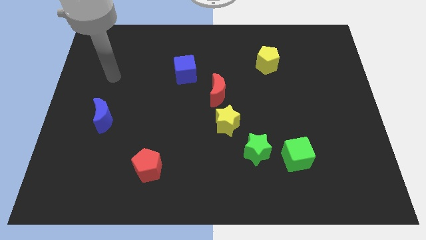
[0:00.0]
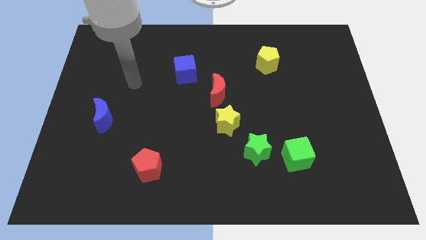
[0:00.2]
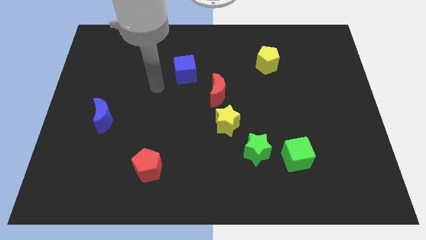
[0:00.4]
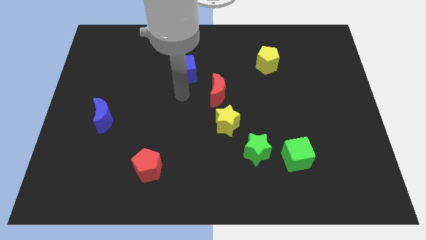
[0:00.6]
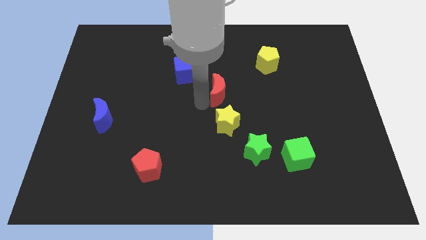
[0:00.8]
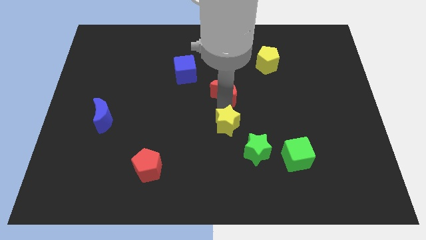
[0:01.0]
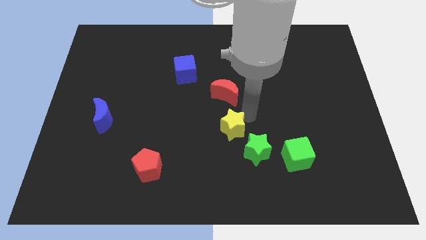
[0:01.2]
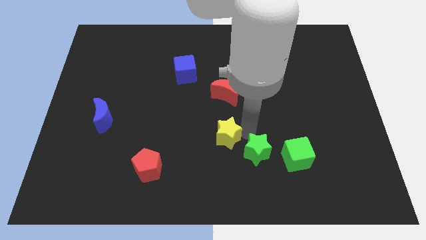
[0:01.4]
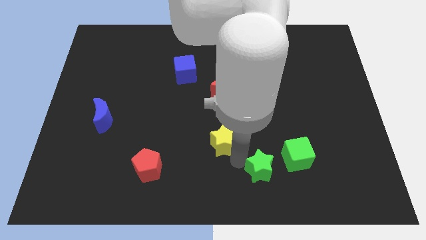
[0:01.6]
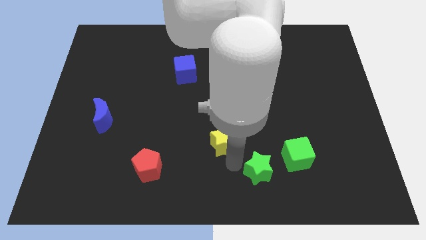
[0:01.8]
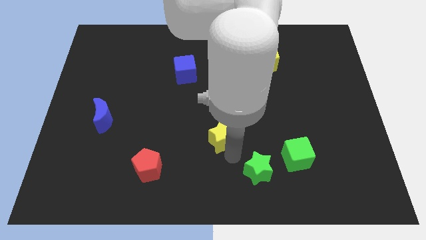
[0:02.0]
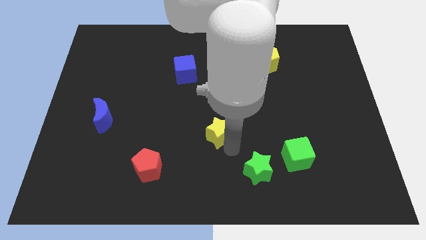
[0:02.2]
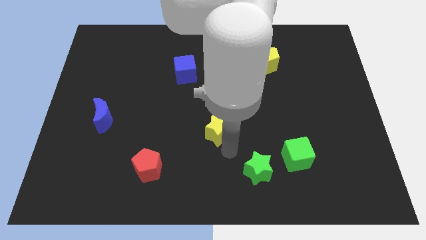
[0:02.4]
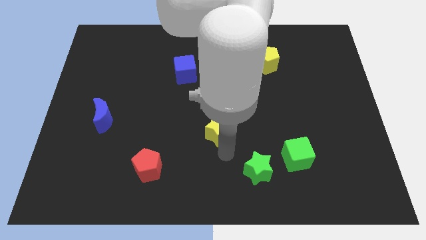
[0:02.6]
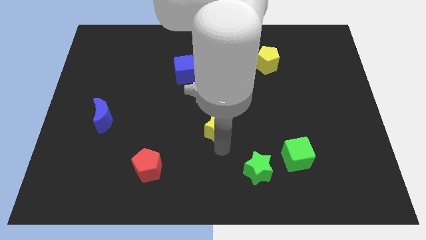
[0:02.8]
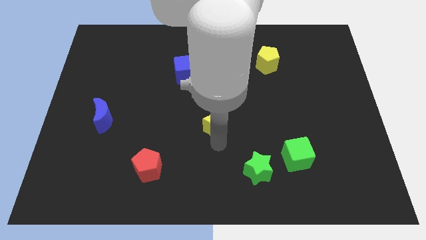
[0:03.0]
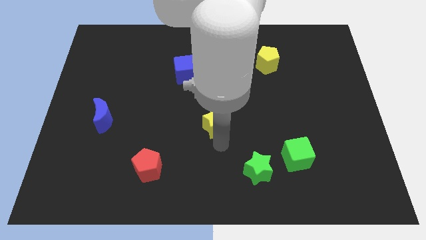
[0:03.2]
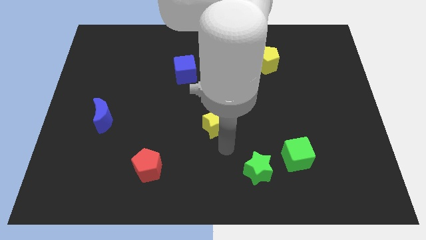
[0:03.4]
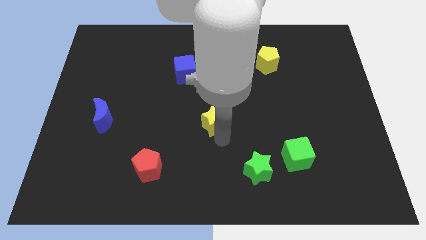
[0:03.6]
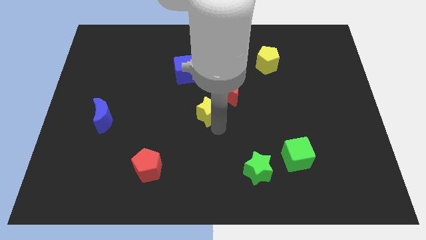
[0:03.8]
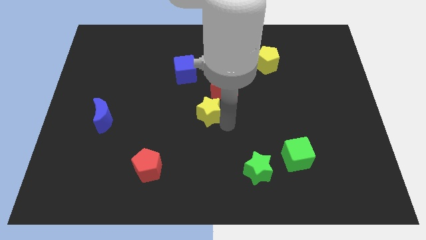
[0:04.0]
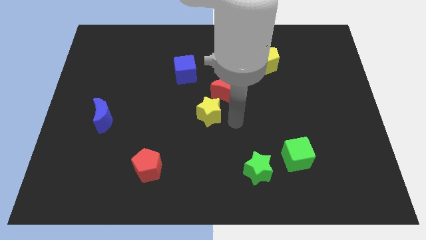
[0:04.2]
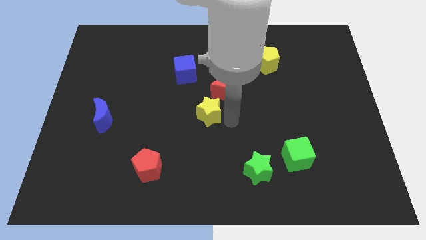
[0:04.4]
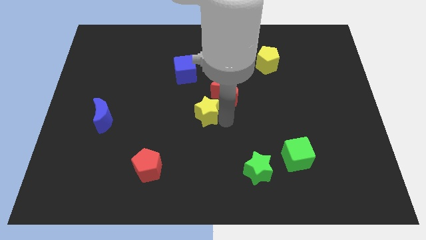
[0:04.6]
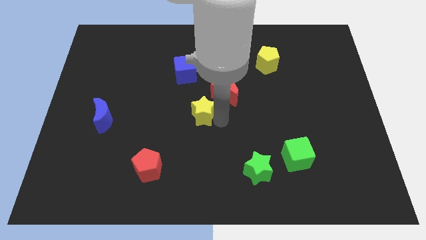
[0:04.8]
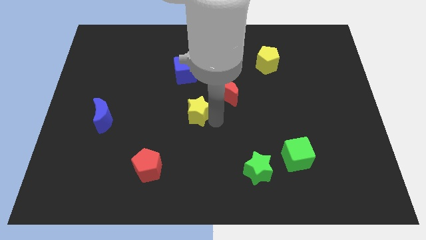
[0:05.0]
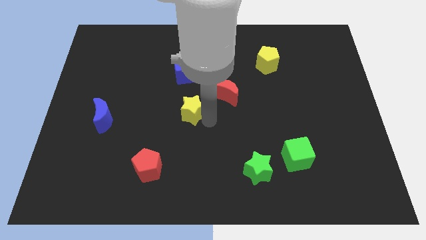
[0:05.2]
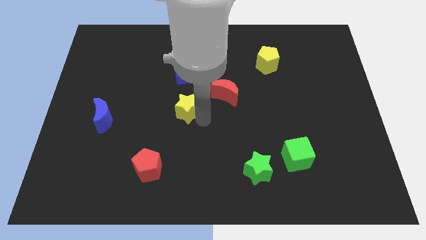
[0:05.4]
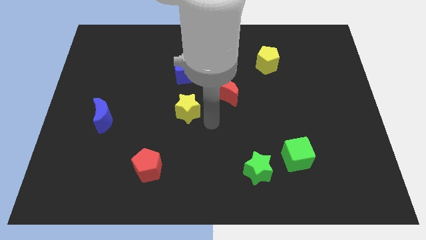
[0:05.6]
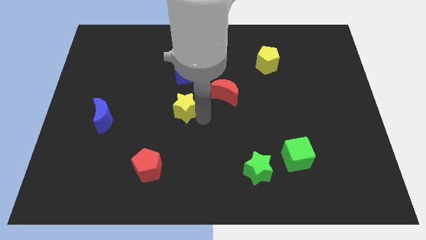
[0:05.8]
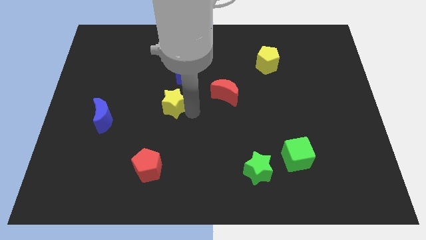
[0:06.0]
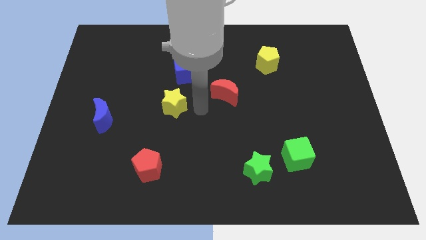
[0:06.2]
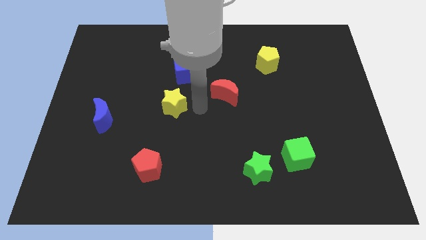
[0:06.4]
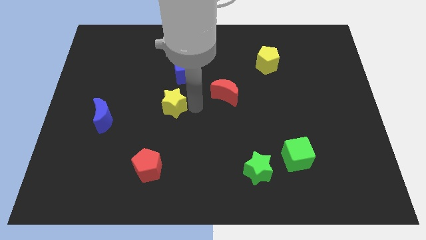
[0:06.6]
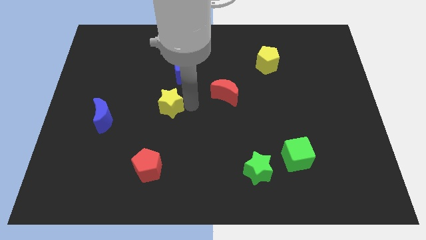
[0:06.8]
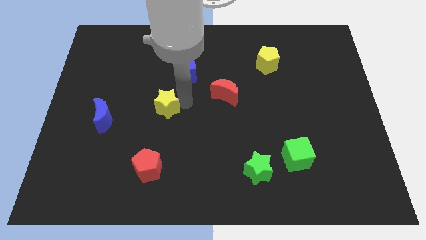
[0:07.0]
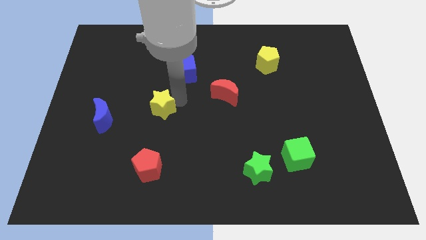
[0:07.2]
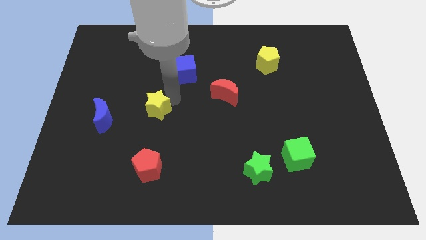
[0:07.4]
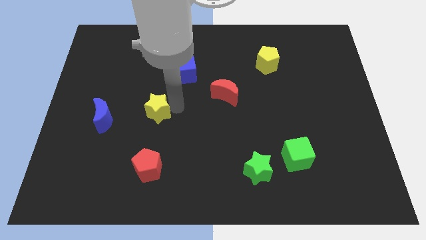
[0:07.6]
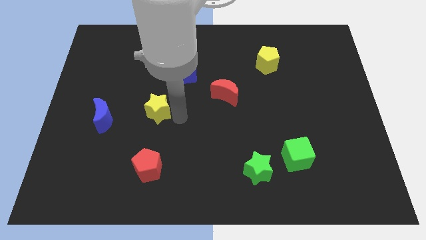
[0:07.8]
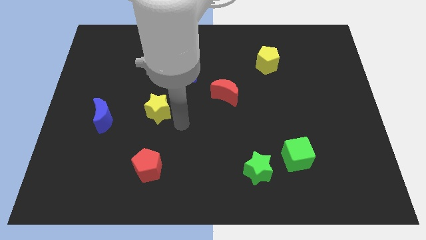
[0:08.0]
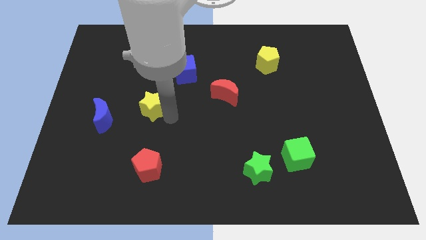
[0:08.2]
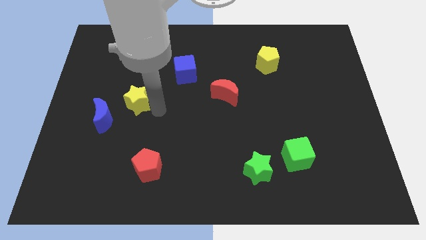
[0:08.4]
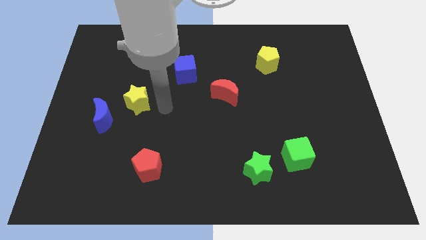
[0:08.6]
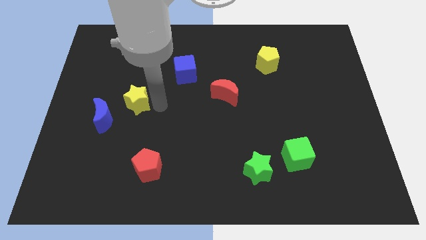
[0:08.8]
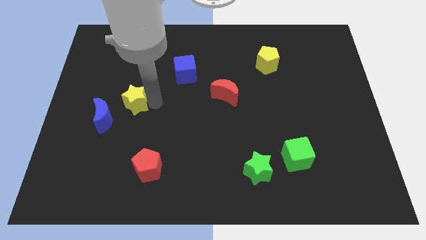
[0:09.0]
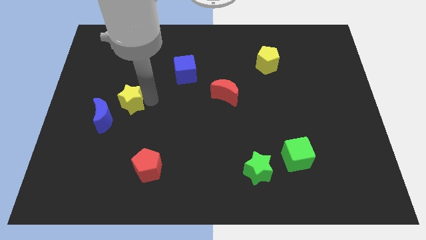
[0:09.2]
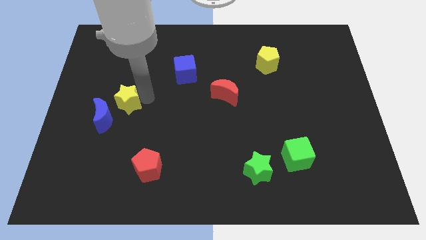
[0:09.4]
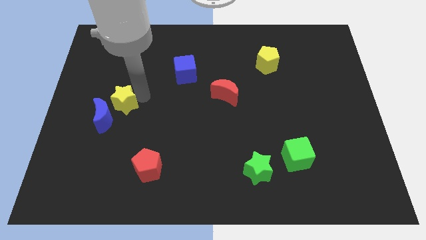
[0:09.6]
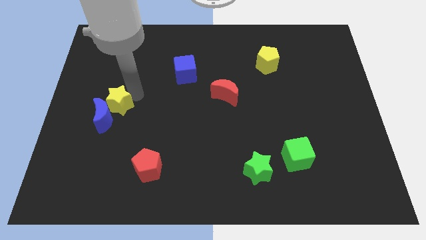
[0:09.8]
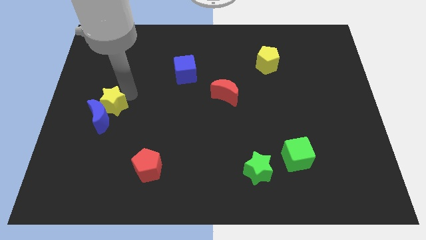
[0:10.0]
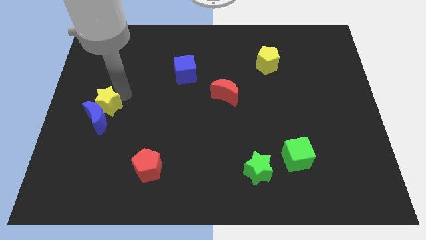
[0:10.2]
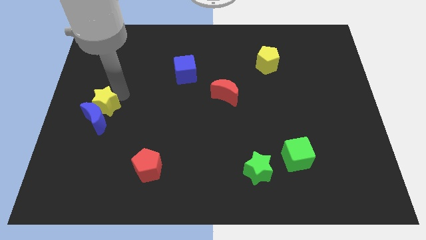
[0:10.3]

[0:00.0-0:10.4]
slide the yellow star to the center left

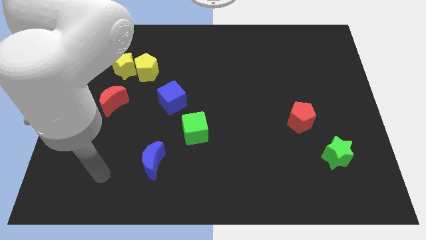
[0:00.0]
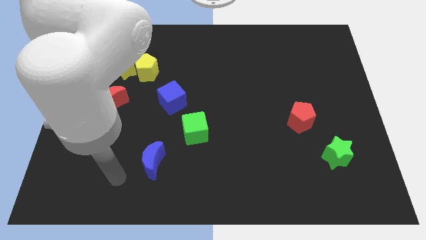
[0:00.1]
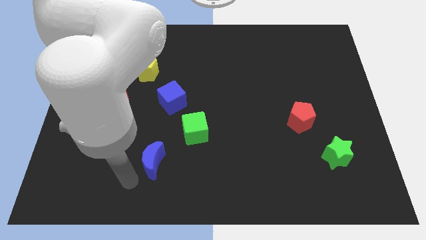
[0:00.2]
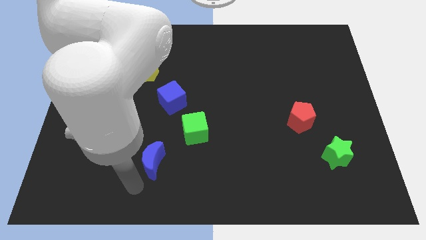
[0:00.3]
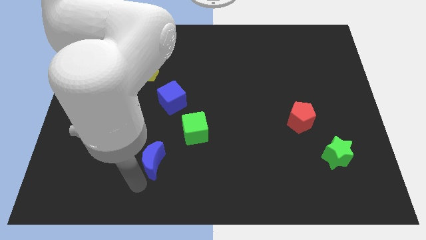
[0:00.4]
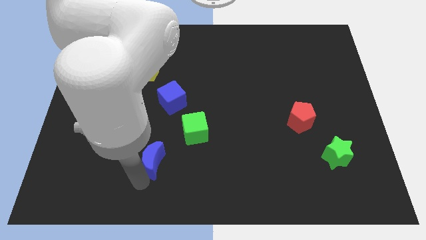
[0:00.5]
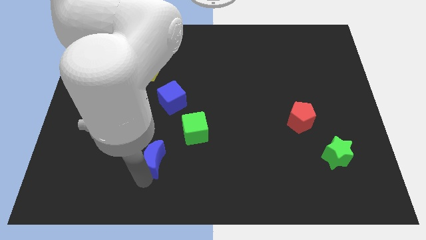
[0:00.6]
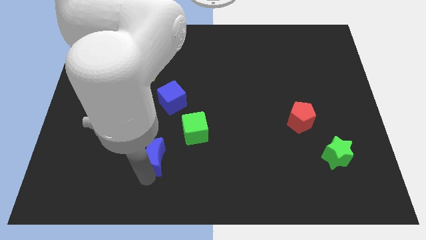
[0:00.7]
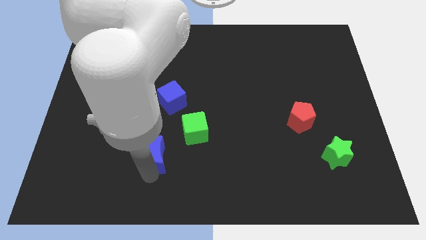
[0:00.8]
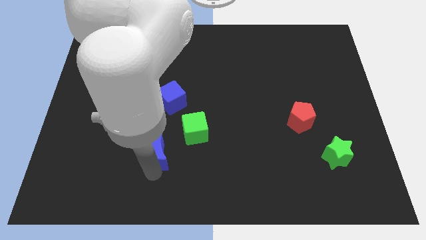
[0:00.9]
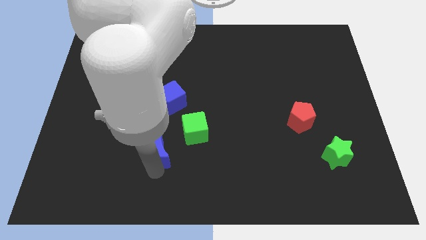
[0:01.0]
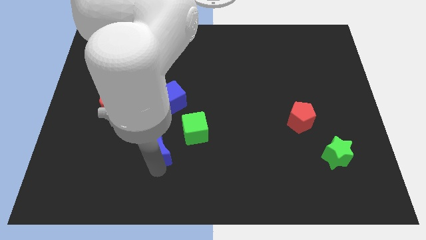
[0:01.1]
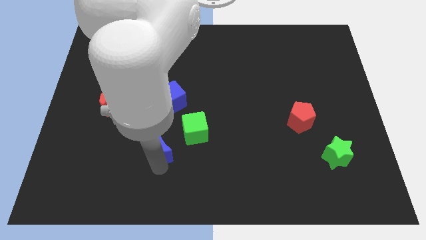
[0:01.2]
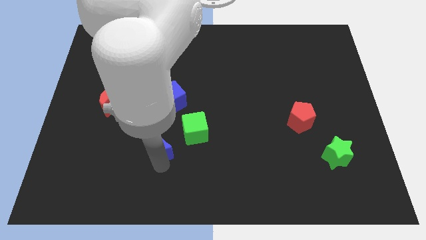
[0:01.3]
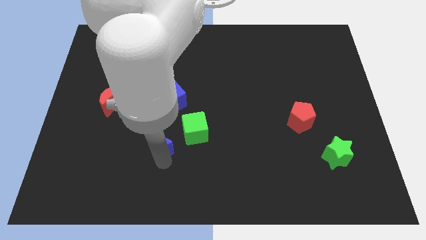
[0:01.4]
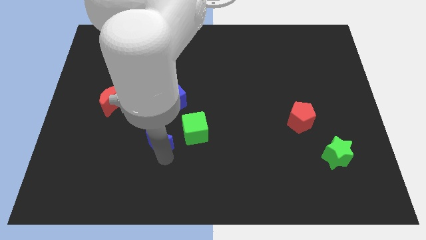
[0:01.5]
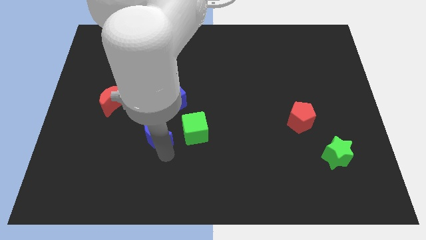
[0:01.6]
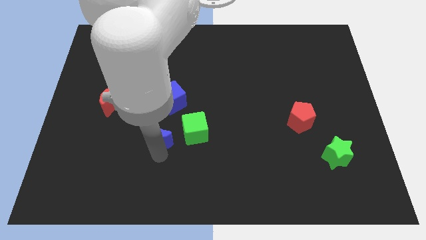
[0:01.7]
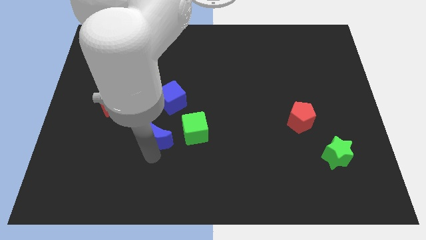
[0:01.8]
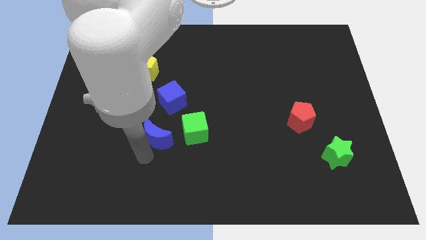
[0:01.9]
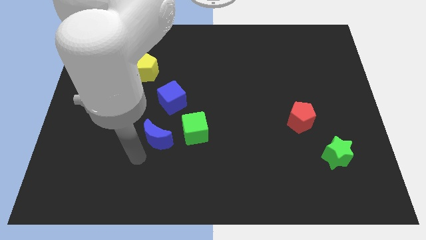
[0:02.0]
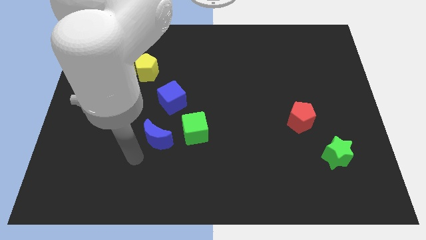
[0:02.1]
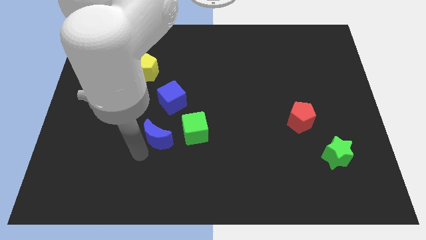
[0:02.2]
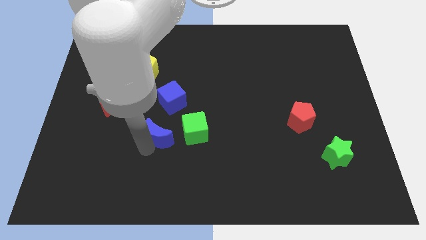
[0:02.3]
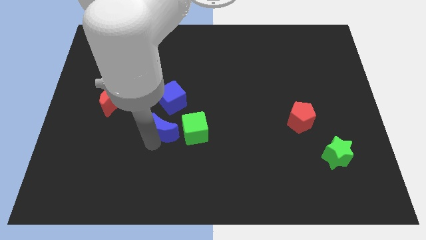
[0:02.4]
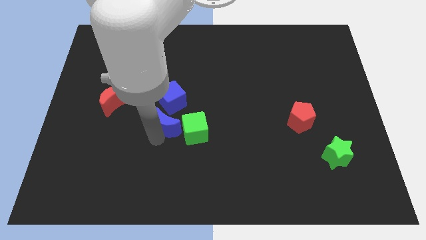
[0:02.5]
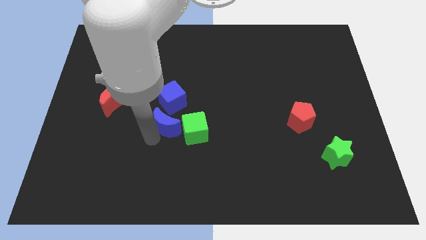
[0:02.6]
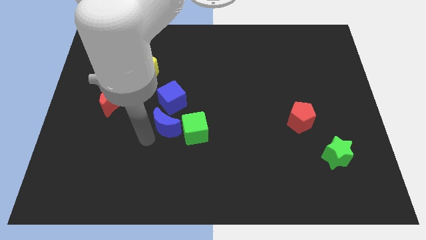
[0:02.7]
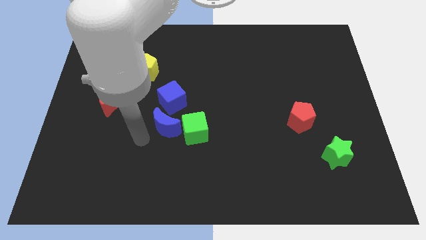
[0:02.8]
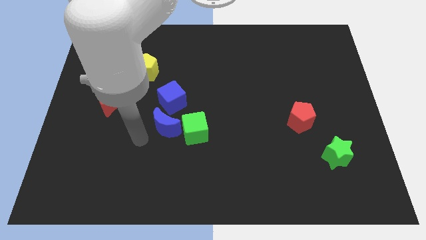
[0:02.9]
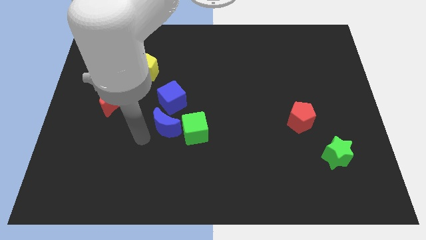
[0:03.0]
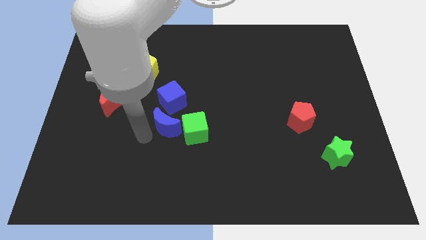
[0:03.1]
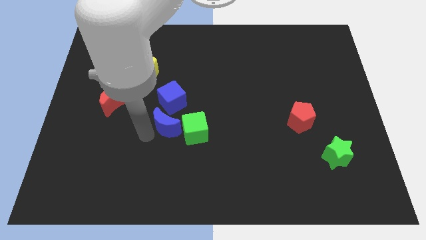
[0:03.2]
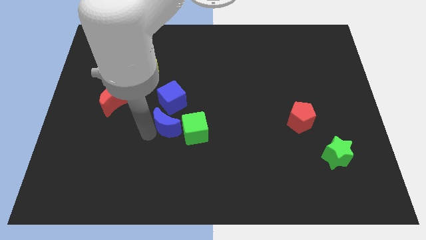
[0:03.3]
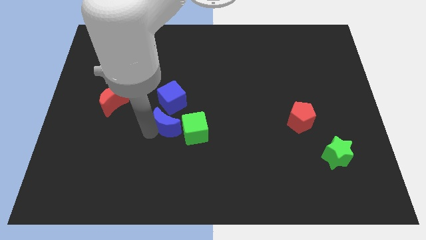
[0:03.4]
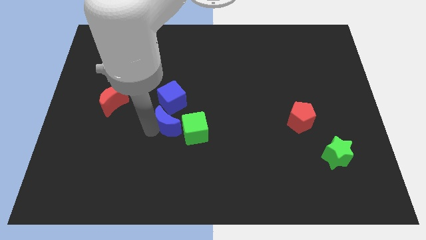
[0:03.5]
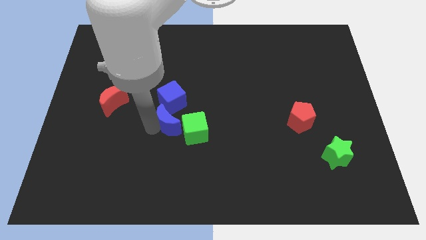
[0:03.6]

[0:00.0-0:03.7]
push the blue moon to the center
